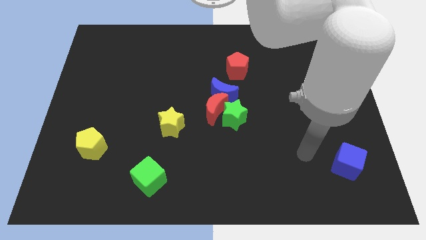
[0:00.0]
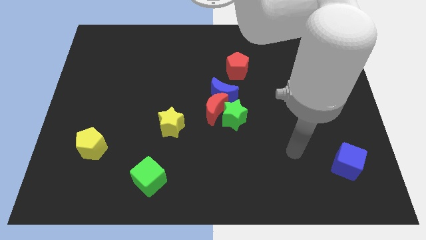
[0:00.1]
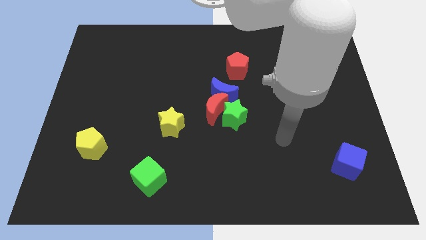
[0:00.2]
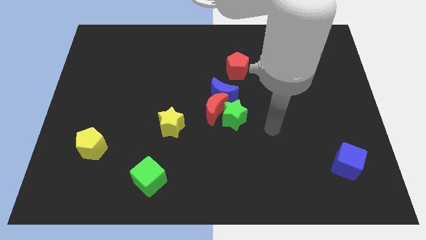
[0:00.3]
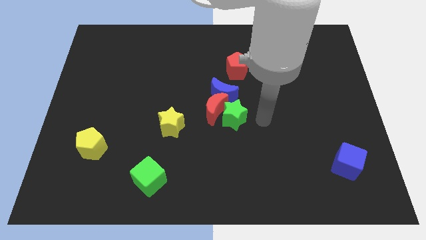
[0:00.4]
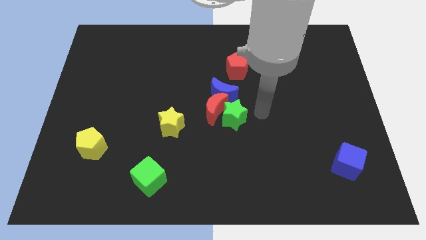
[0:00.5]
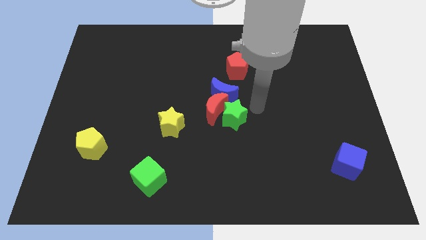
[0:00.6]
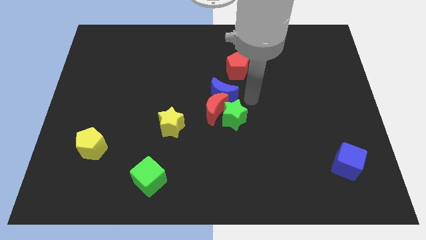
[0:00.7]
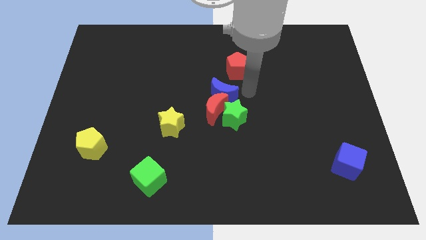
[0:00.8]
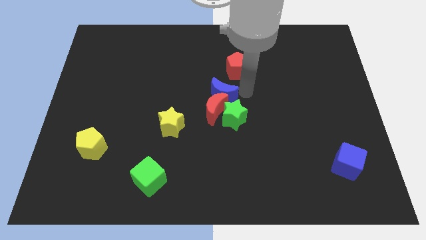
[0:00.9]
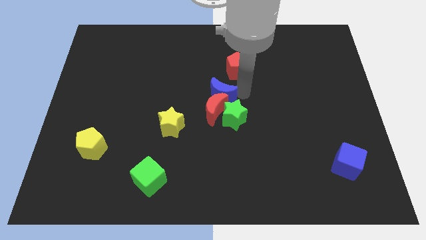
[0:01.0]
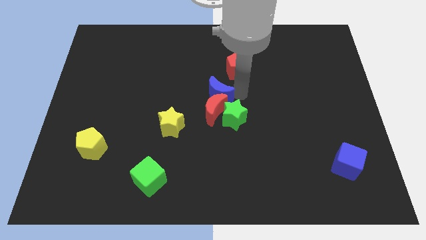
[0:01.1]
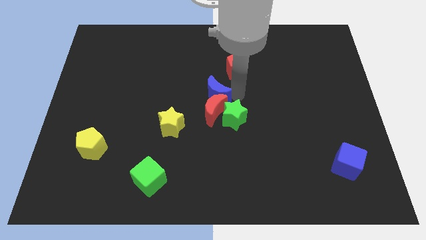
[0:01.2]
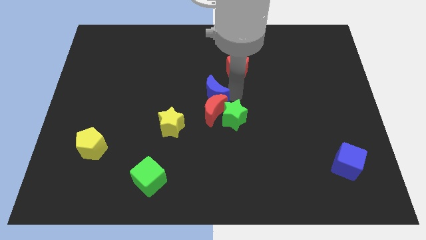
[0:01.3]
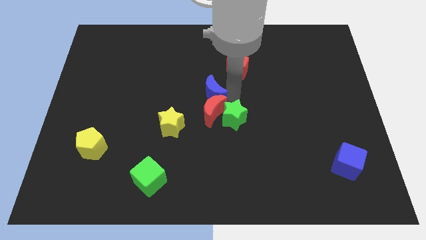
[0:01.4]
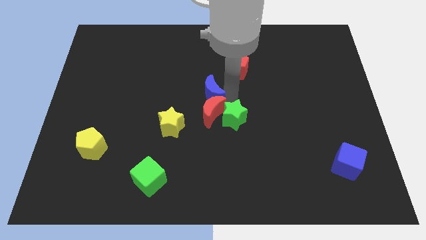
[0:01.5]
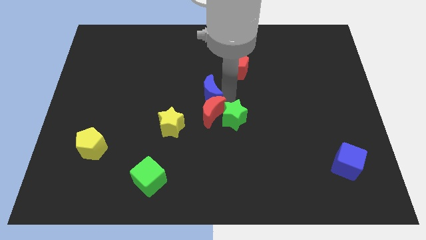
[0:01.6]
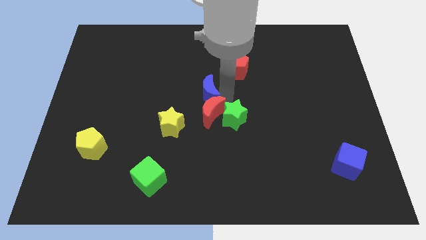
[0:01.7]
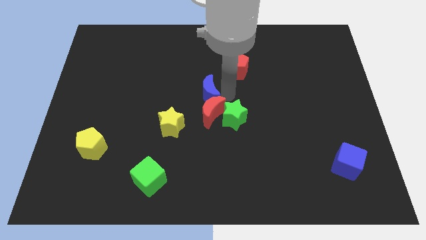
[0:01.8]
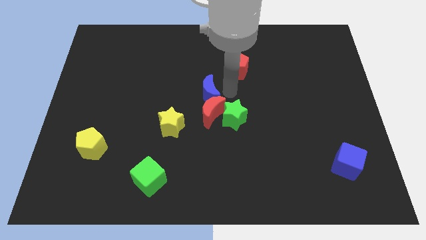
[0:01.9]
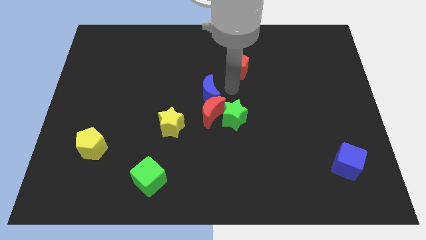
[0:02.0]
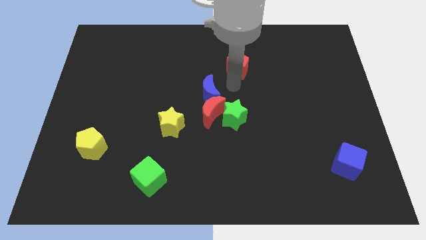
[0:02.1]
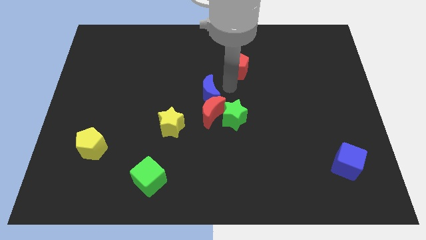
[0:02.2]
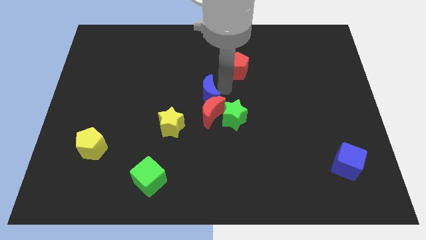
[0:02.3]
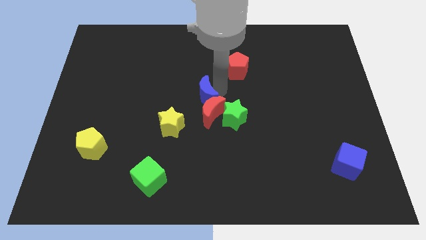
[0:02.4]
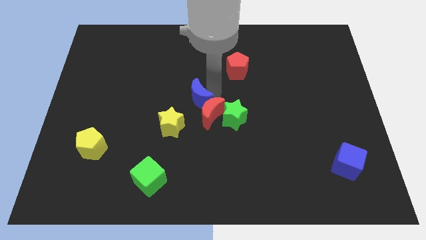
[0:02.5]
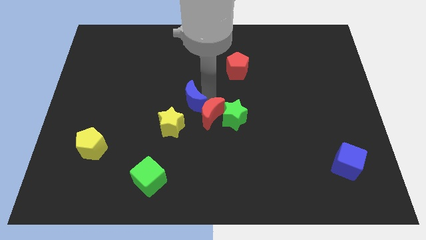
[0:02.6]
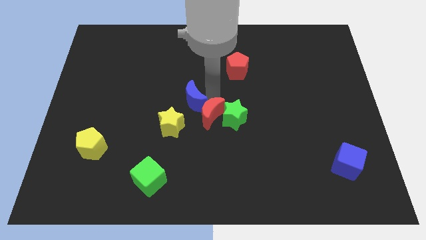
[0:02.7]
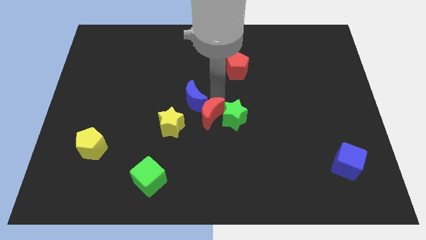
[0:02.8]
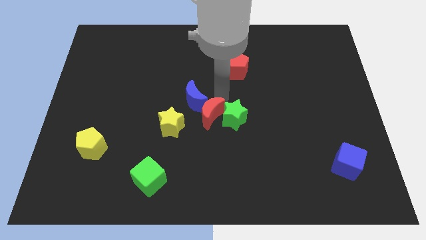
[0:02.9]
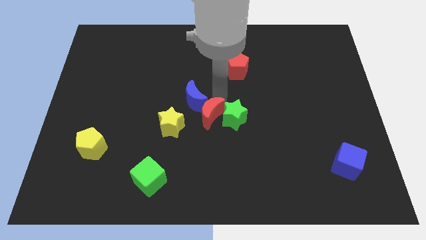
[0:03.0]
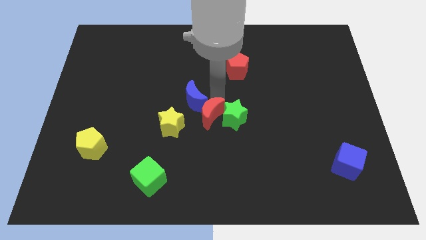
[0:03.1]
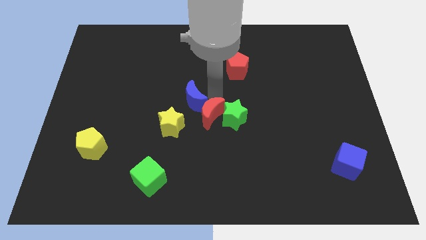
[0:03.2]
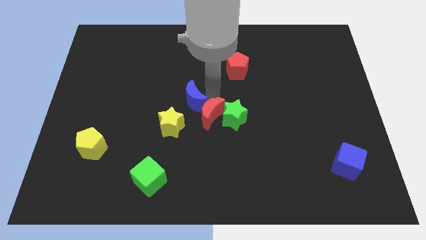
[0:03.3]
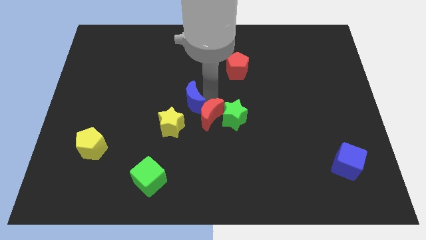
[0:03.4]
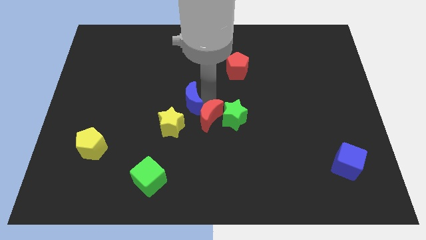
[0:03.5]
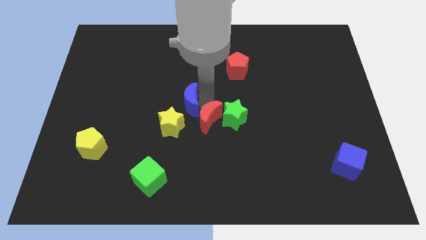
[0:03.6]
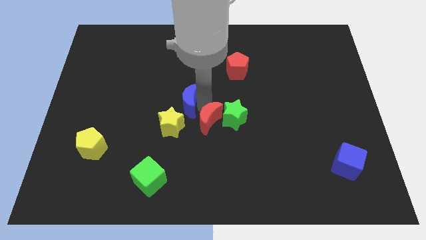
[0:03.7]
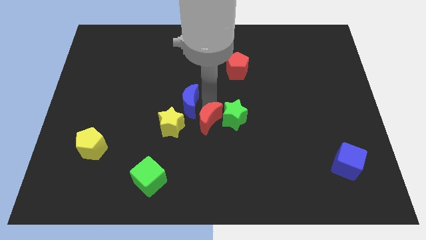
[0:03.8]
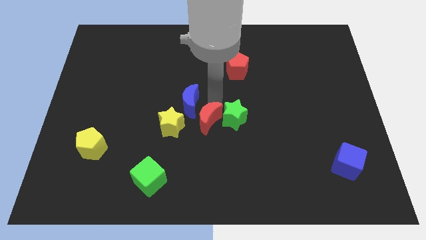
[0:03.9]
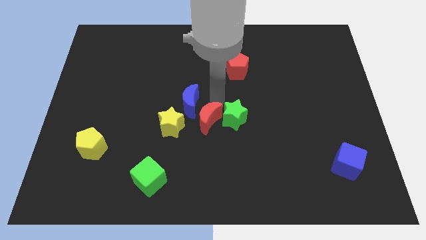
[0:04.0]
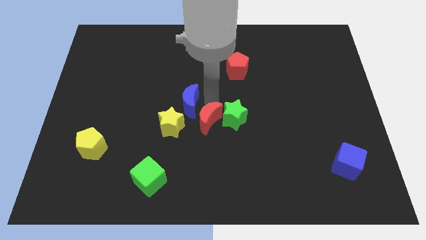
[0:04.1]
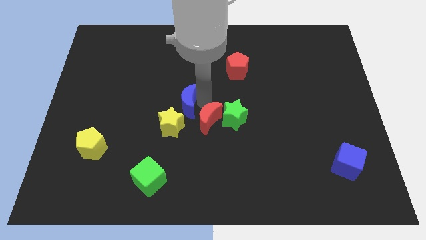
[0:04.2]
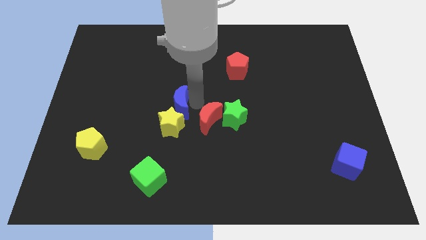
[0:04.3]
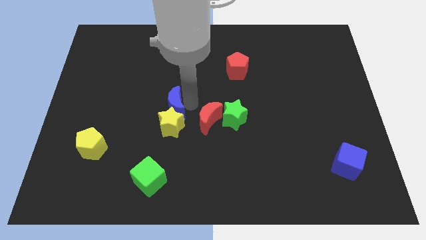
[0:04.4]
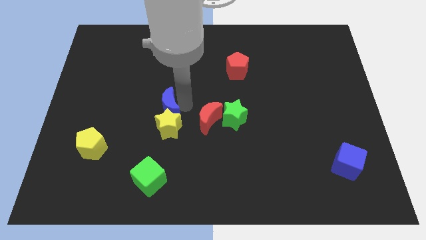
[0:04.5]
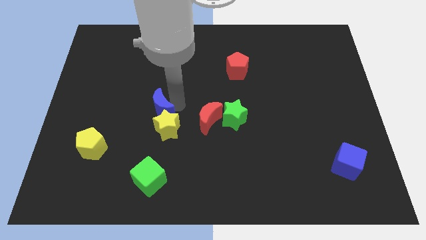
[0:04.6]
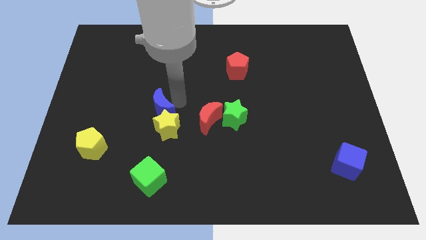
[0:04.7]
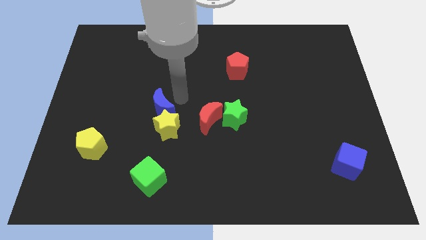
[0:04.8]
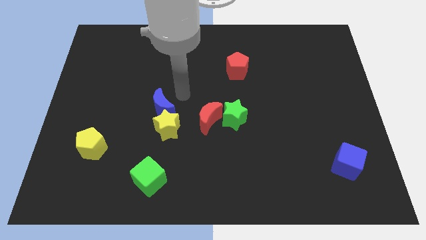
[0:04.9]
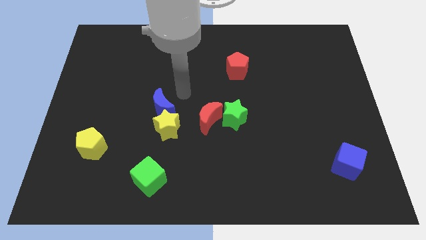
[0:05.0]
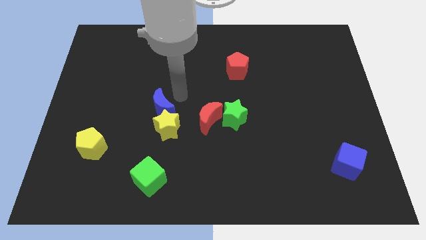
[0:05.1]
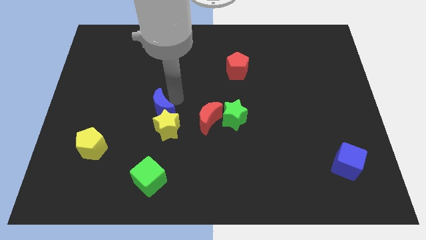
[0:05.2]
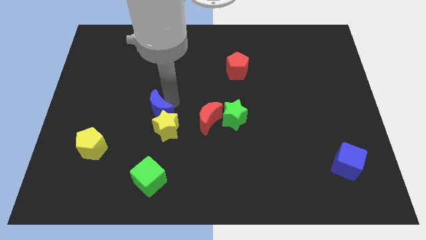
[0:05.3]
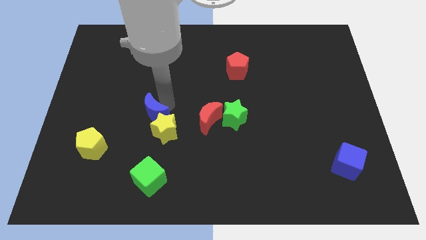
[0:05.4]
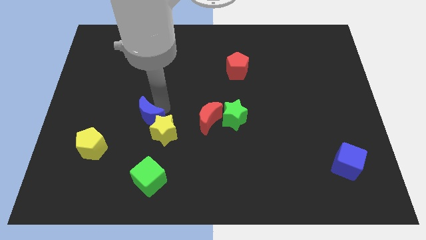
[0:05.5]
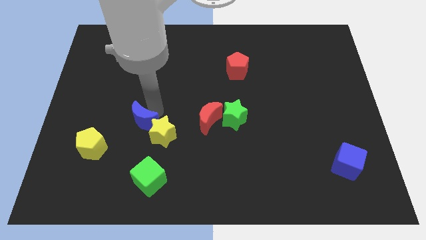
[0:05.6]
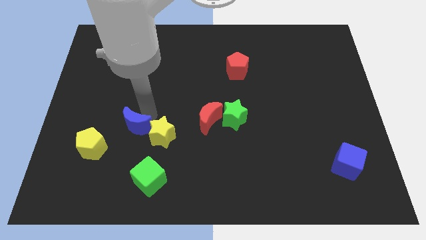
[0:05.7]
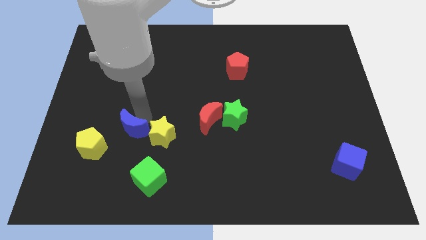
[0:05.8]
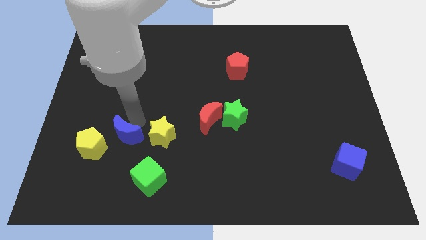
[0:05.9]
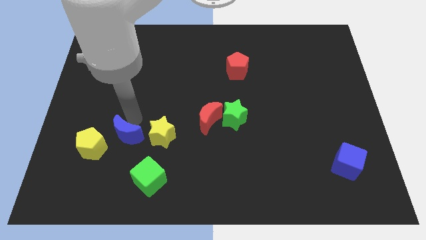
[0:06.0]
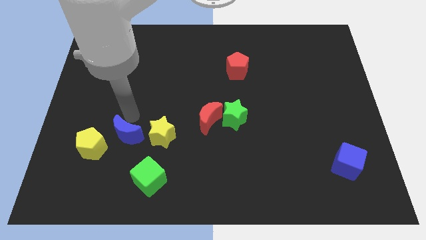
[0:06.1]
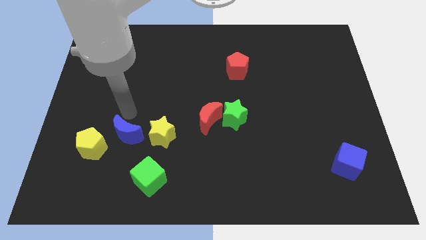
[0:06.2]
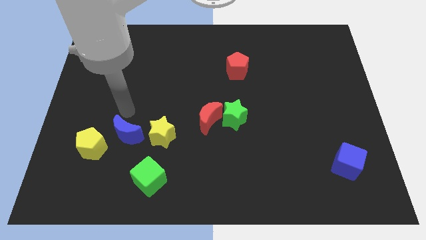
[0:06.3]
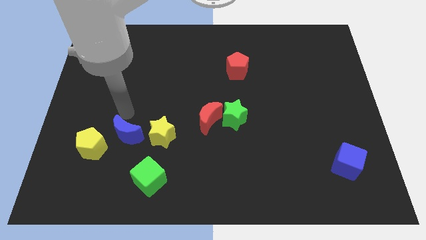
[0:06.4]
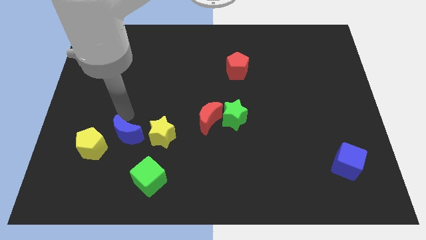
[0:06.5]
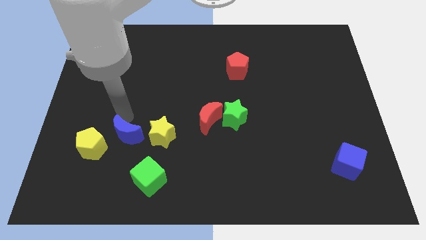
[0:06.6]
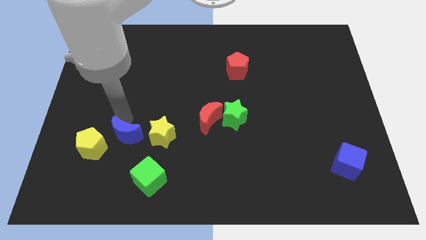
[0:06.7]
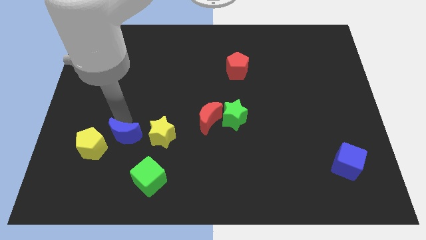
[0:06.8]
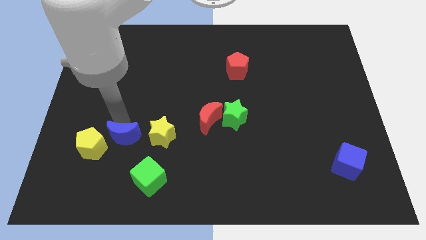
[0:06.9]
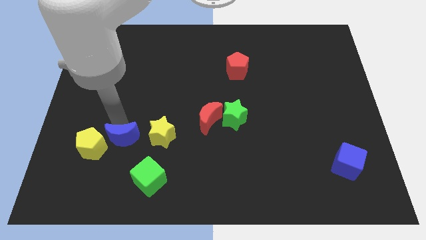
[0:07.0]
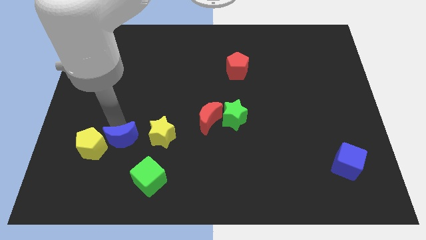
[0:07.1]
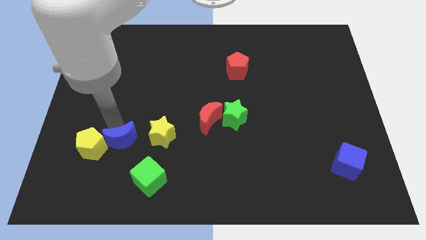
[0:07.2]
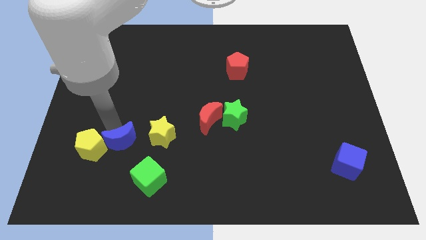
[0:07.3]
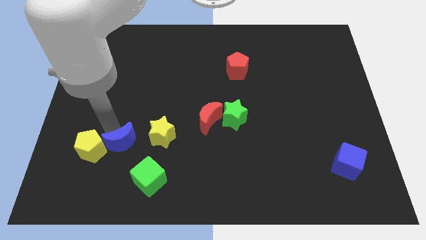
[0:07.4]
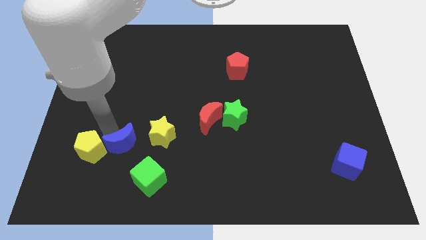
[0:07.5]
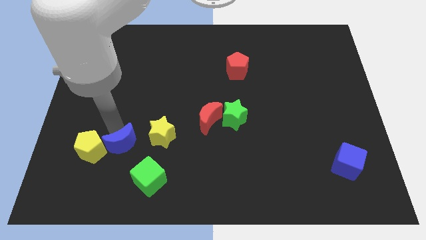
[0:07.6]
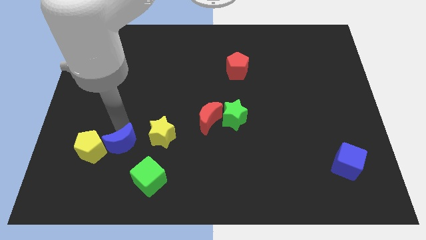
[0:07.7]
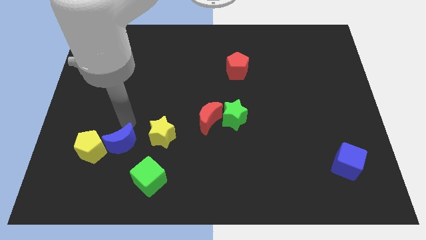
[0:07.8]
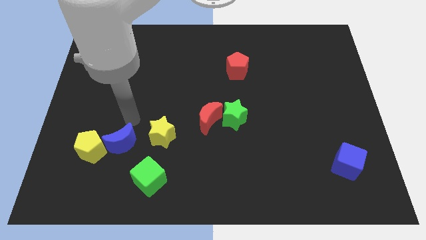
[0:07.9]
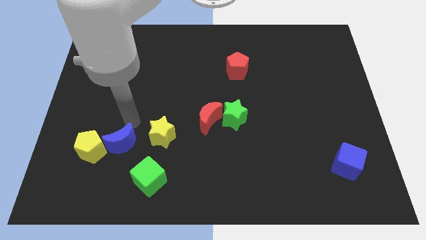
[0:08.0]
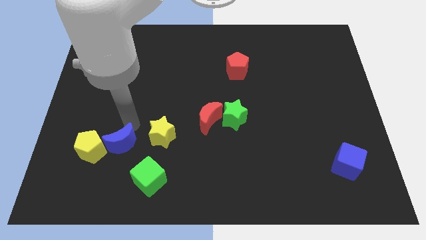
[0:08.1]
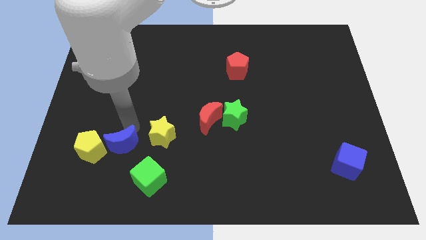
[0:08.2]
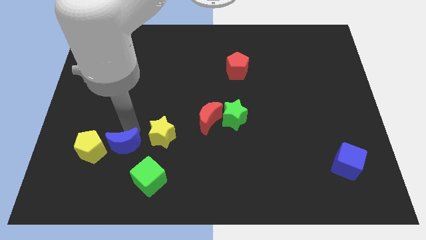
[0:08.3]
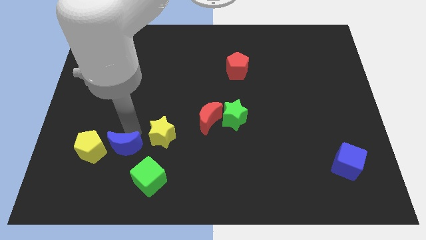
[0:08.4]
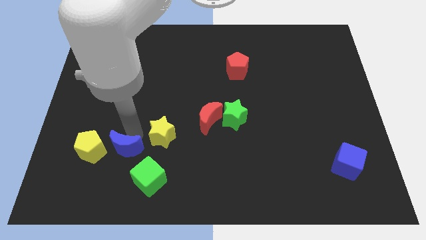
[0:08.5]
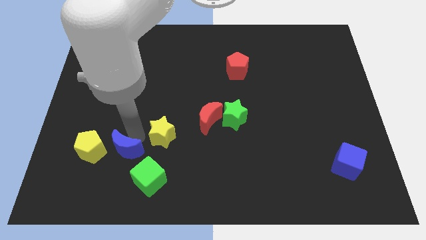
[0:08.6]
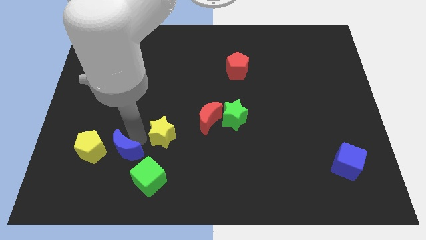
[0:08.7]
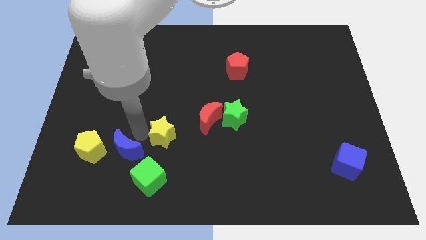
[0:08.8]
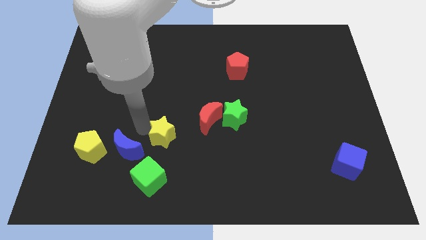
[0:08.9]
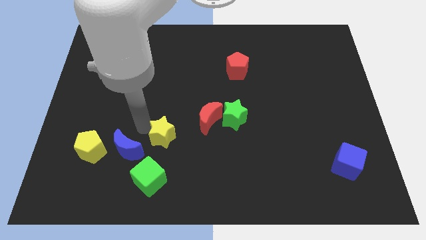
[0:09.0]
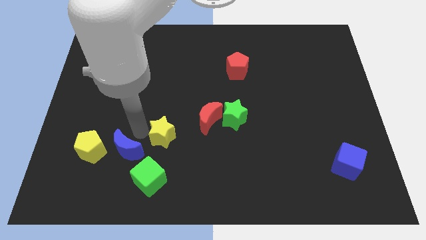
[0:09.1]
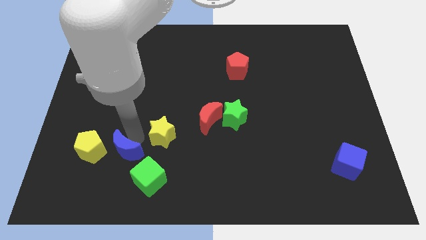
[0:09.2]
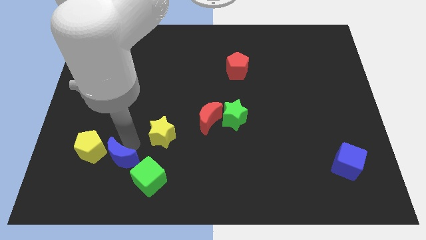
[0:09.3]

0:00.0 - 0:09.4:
put the blue moon to the bottom right side of the yellow pentagon
